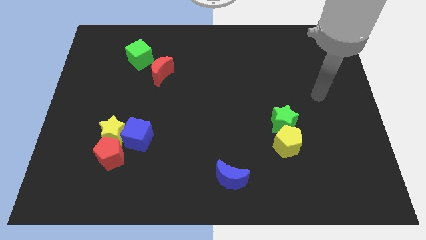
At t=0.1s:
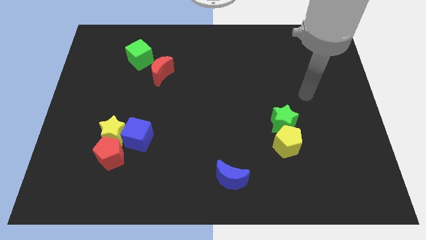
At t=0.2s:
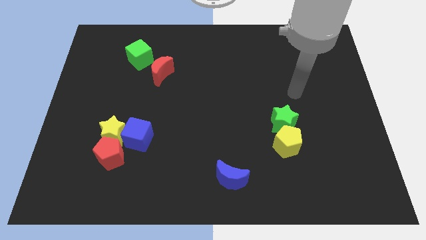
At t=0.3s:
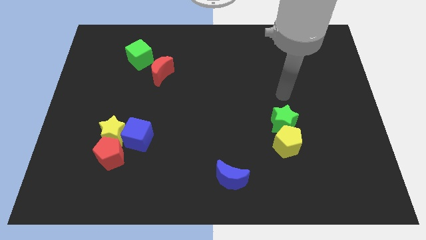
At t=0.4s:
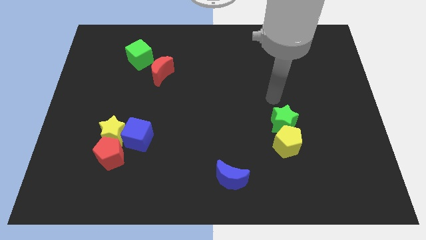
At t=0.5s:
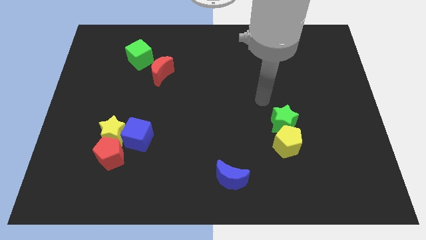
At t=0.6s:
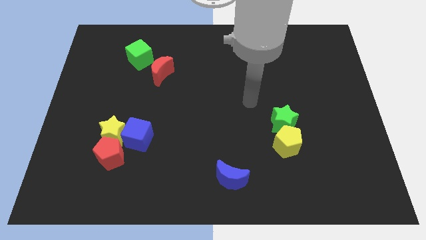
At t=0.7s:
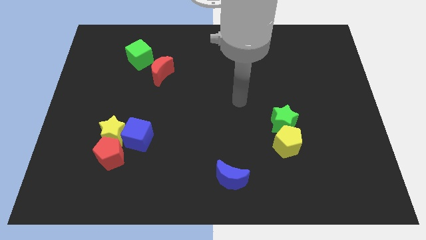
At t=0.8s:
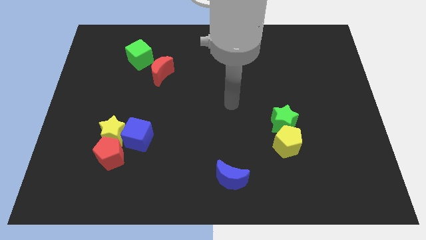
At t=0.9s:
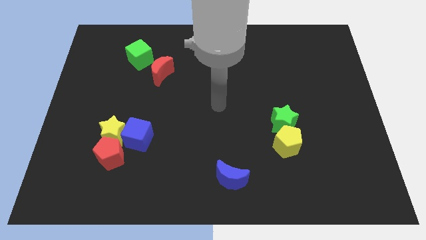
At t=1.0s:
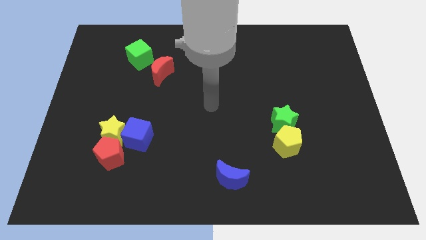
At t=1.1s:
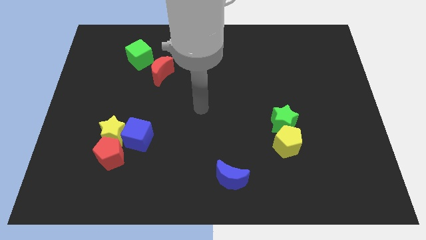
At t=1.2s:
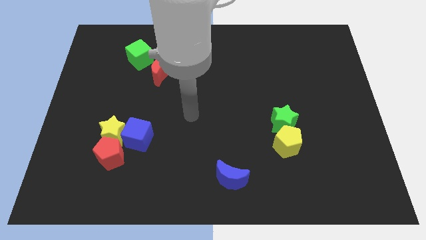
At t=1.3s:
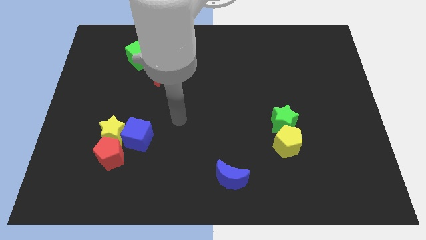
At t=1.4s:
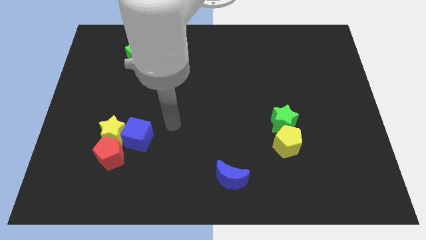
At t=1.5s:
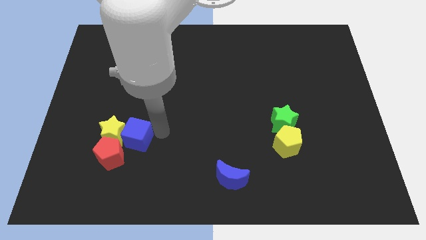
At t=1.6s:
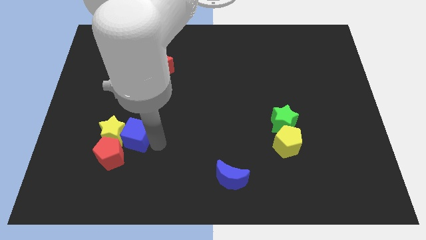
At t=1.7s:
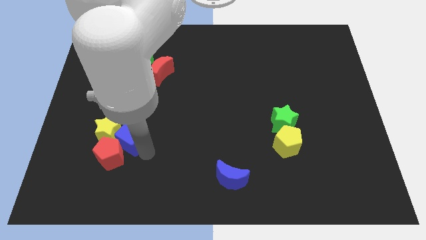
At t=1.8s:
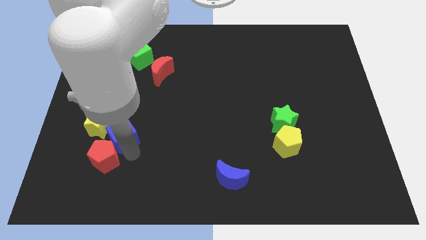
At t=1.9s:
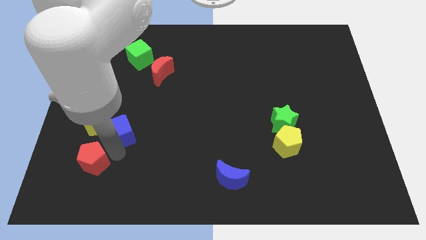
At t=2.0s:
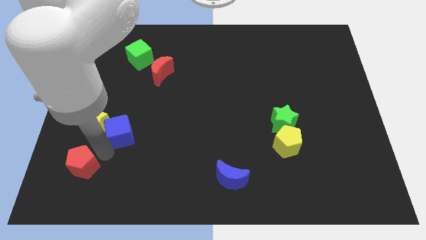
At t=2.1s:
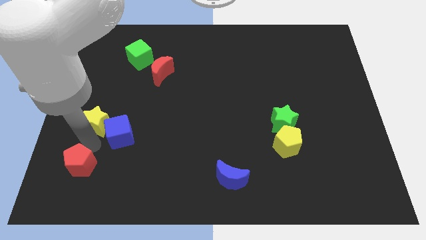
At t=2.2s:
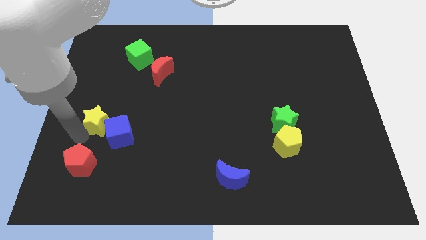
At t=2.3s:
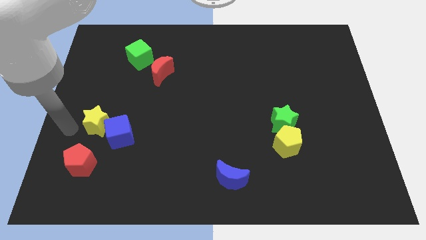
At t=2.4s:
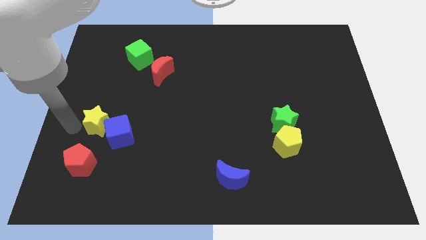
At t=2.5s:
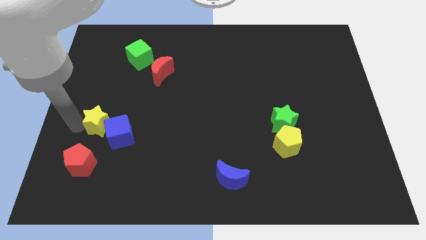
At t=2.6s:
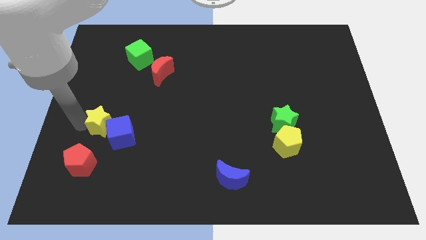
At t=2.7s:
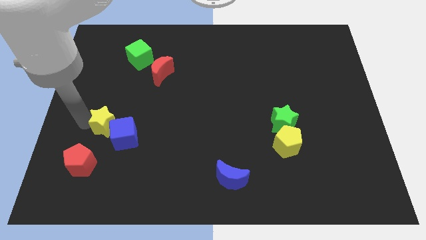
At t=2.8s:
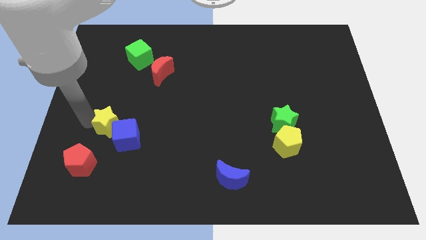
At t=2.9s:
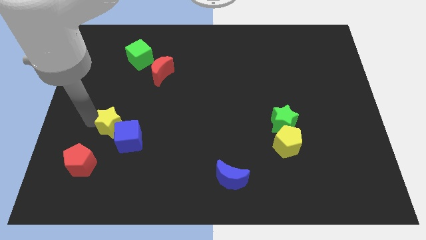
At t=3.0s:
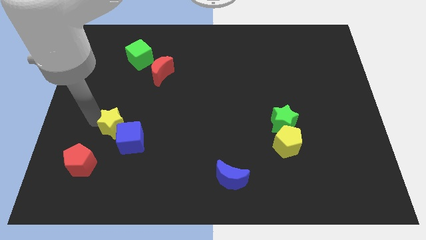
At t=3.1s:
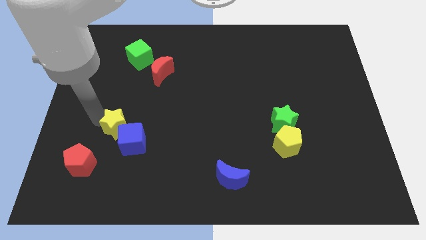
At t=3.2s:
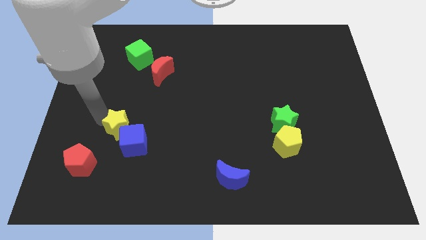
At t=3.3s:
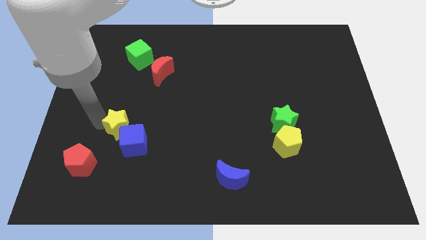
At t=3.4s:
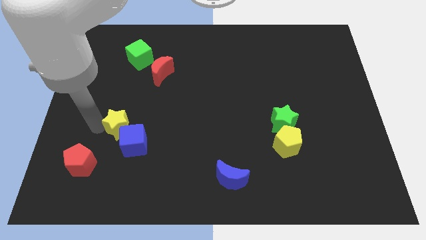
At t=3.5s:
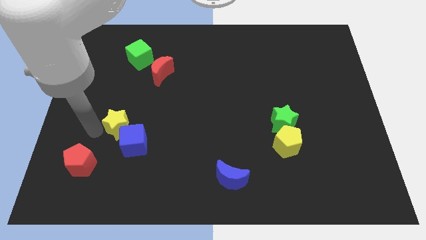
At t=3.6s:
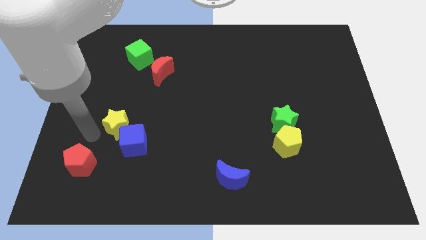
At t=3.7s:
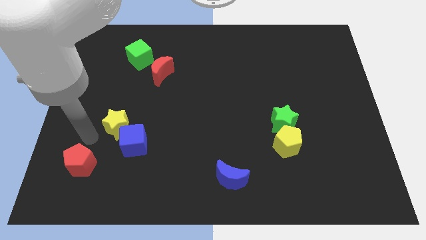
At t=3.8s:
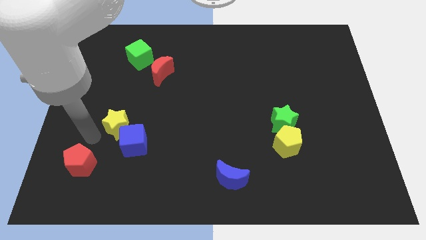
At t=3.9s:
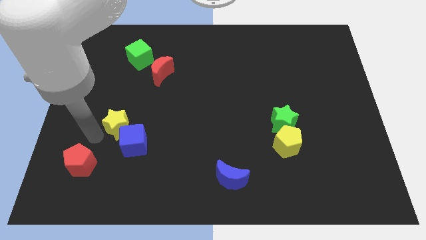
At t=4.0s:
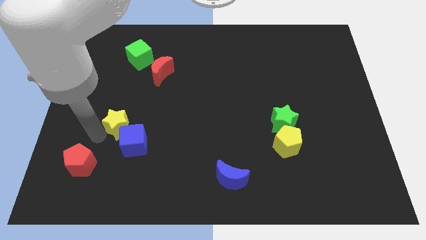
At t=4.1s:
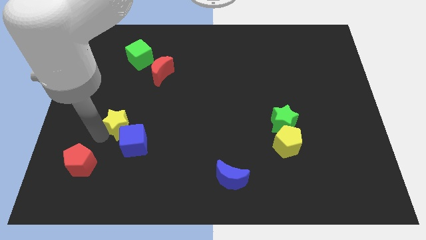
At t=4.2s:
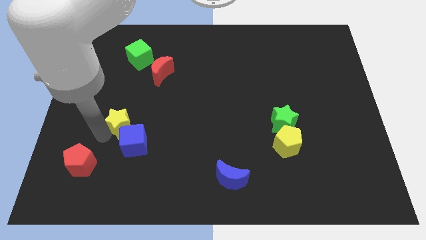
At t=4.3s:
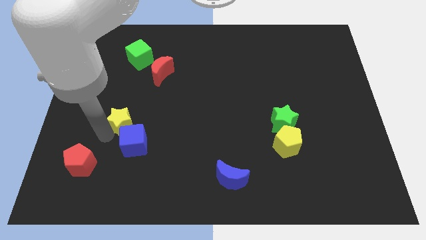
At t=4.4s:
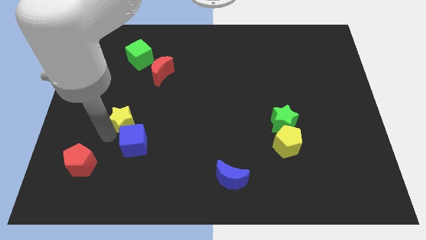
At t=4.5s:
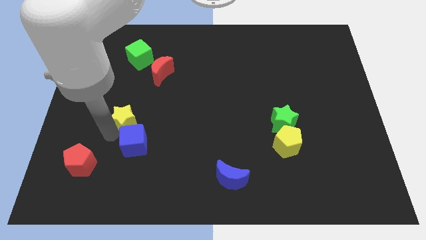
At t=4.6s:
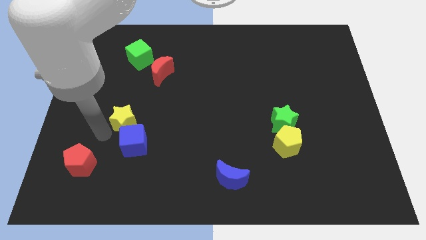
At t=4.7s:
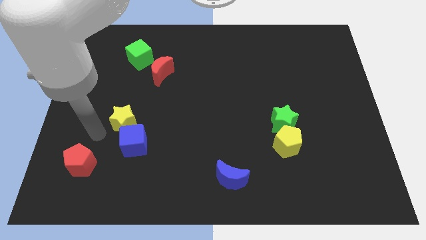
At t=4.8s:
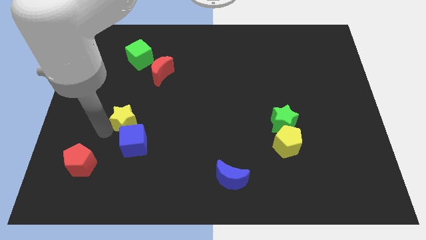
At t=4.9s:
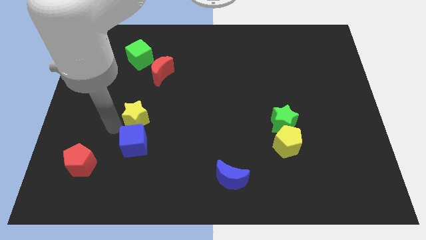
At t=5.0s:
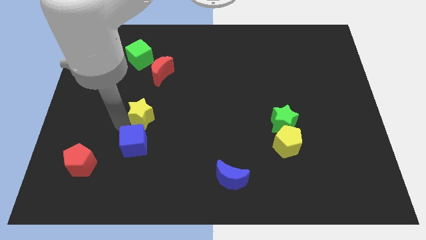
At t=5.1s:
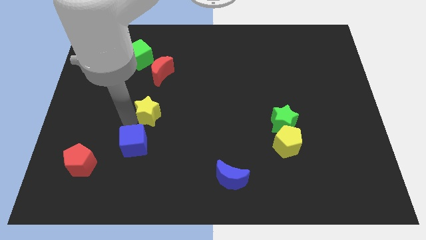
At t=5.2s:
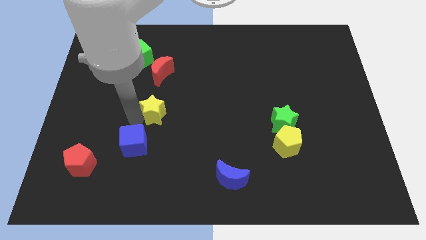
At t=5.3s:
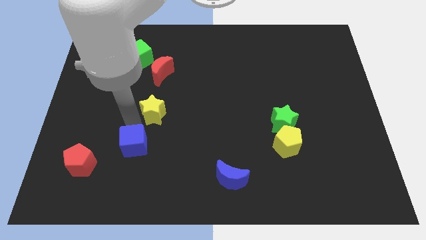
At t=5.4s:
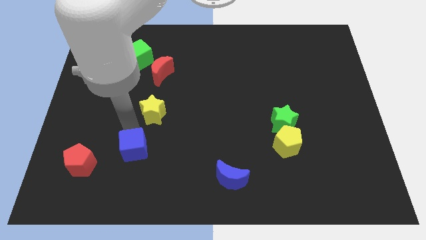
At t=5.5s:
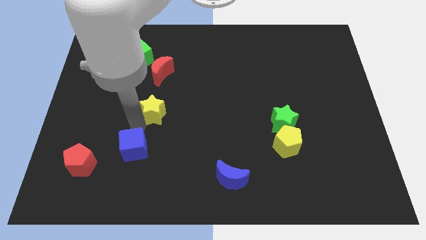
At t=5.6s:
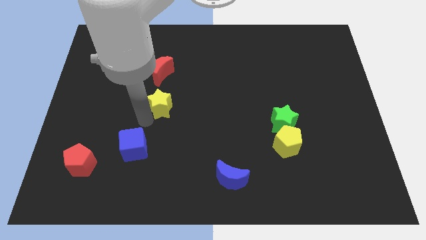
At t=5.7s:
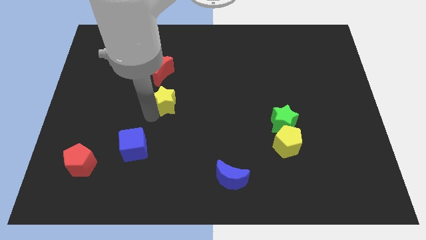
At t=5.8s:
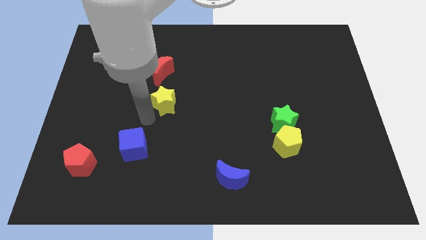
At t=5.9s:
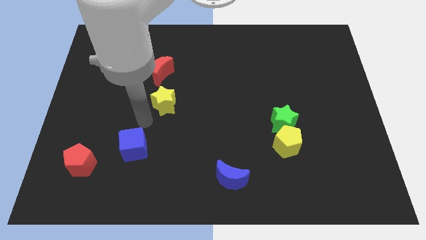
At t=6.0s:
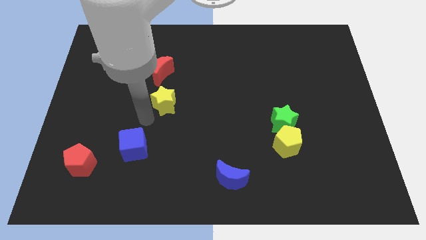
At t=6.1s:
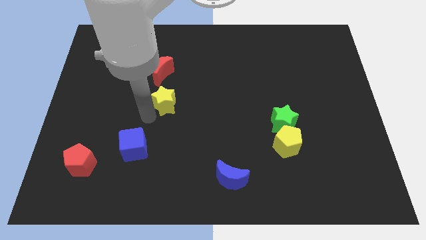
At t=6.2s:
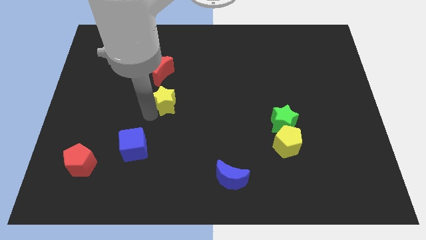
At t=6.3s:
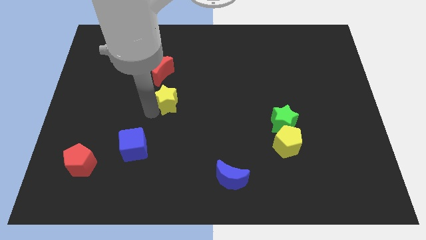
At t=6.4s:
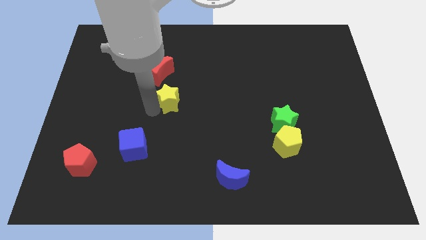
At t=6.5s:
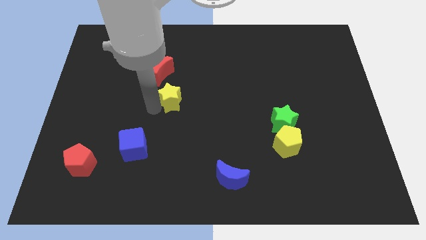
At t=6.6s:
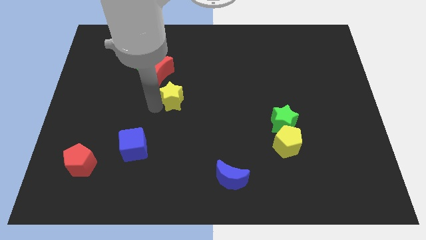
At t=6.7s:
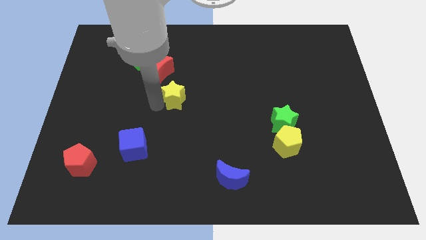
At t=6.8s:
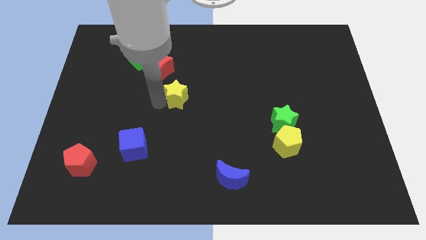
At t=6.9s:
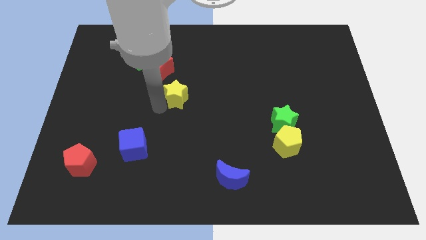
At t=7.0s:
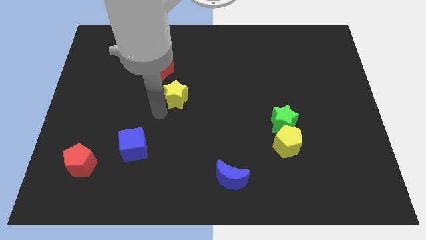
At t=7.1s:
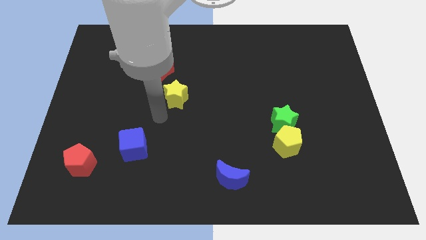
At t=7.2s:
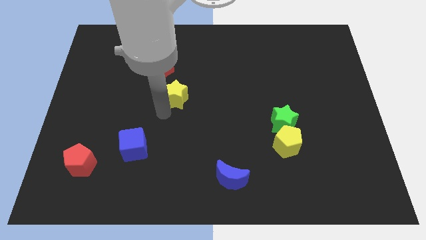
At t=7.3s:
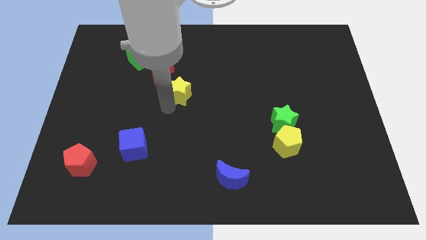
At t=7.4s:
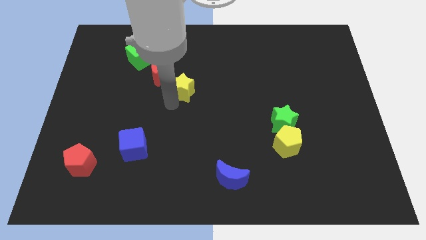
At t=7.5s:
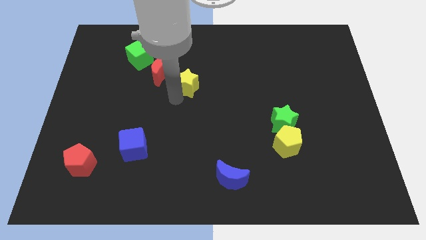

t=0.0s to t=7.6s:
push the yellow star up and right

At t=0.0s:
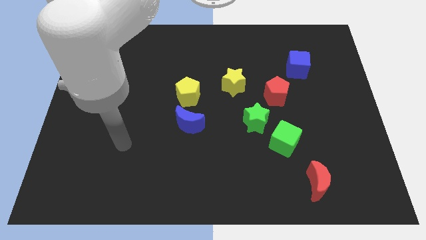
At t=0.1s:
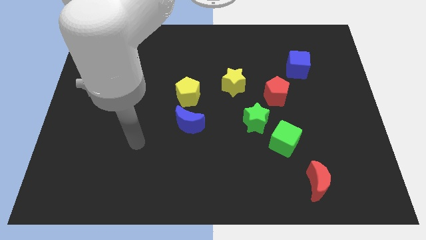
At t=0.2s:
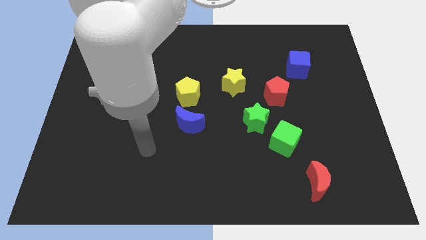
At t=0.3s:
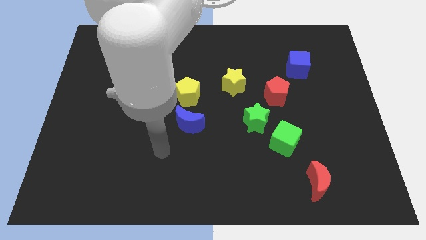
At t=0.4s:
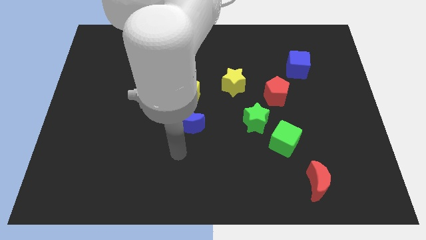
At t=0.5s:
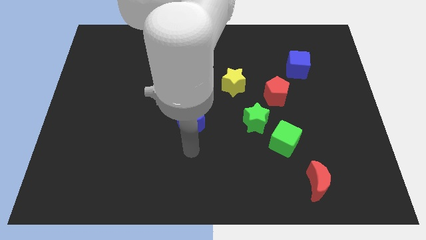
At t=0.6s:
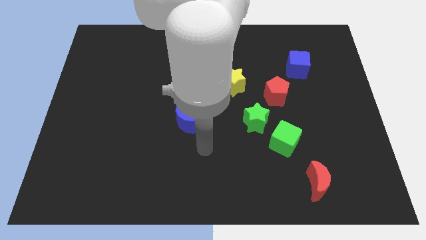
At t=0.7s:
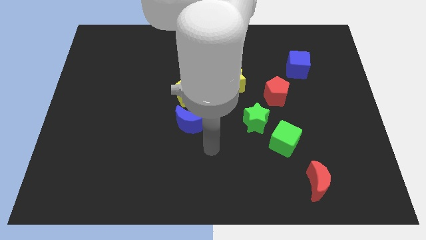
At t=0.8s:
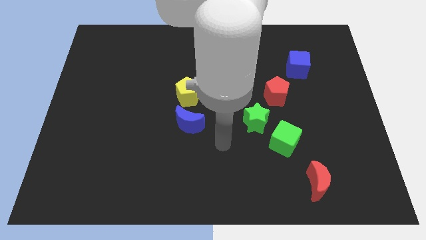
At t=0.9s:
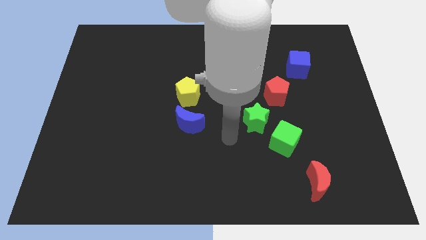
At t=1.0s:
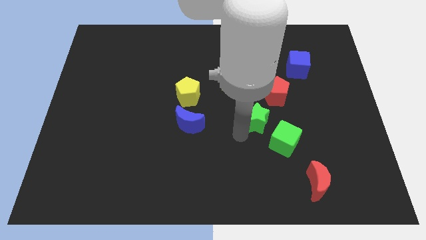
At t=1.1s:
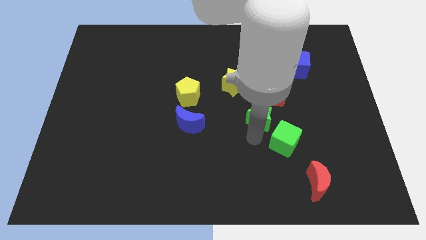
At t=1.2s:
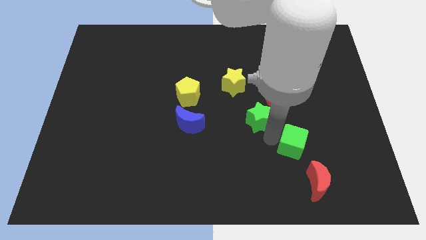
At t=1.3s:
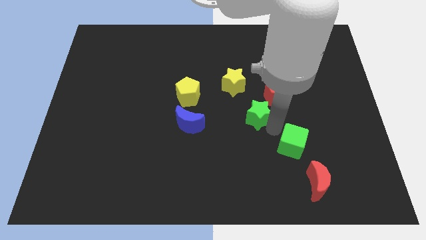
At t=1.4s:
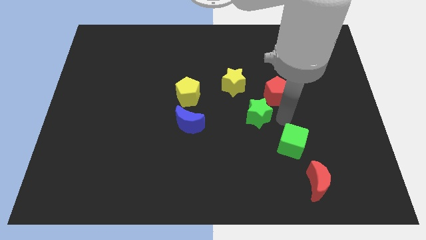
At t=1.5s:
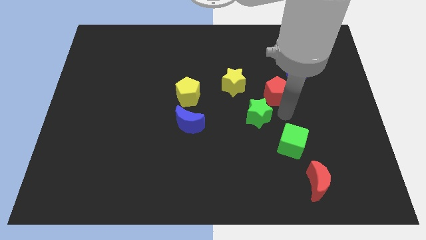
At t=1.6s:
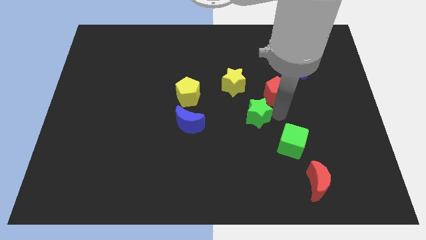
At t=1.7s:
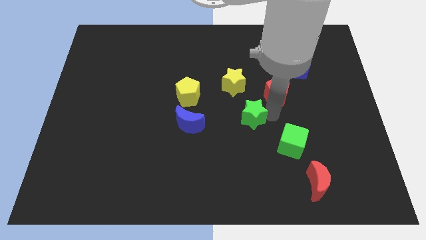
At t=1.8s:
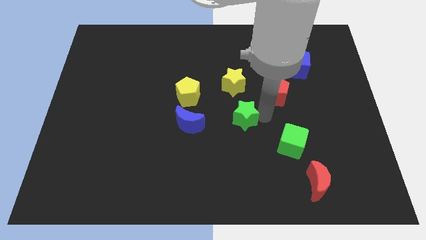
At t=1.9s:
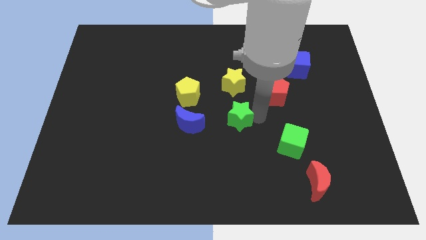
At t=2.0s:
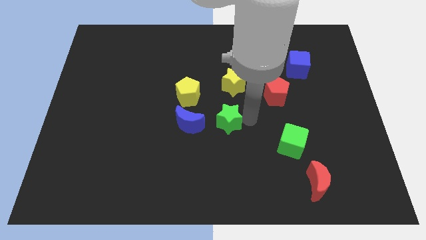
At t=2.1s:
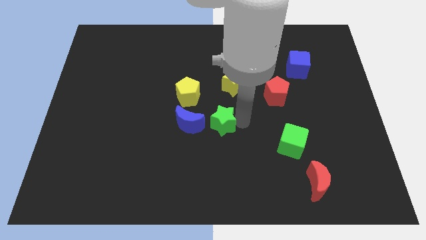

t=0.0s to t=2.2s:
slide the green star somewhat to the left
